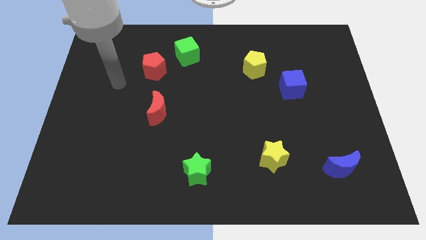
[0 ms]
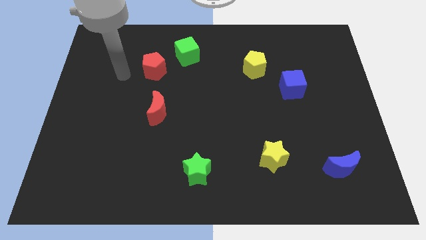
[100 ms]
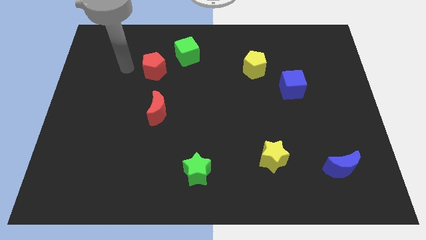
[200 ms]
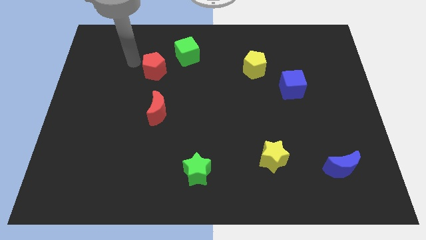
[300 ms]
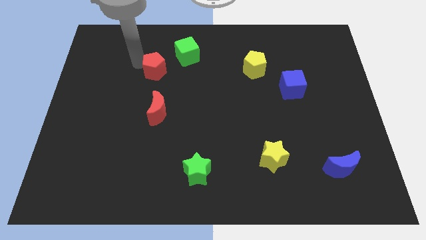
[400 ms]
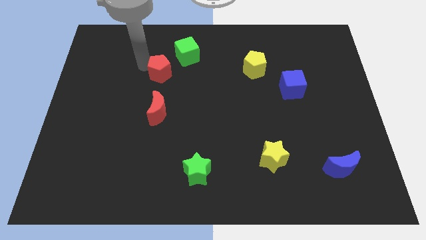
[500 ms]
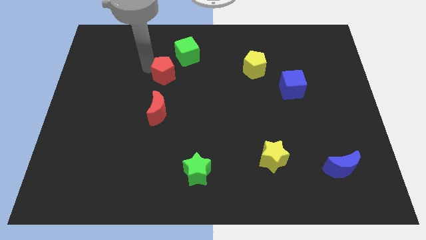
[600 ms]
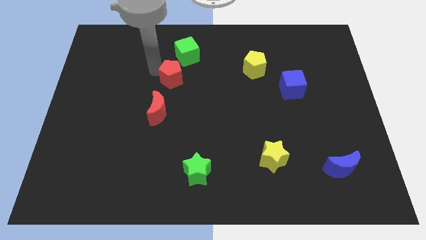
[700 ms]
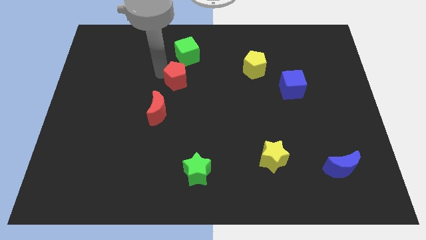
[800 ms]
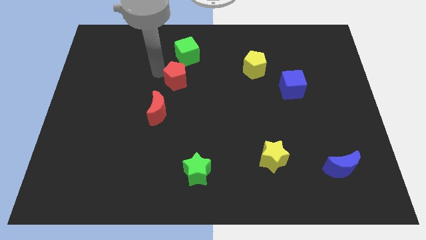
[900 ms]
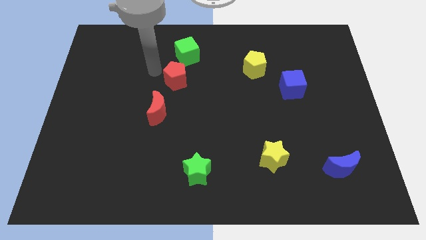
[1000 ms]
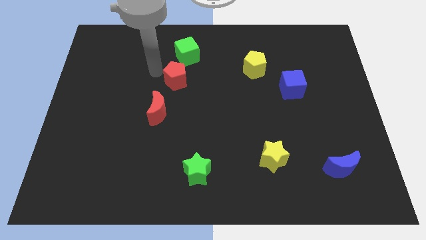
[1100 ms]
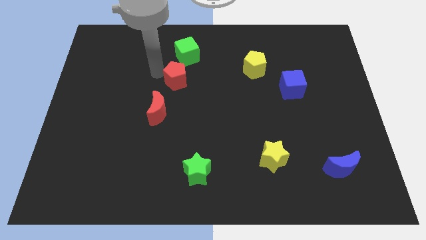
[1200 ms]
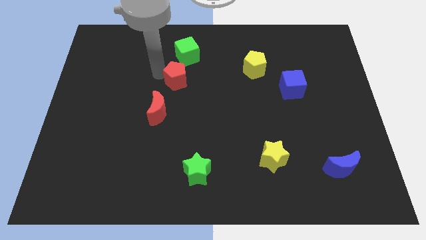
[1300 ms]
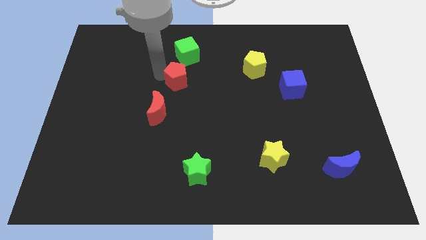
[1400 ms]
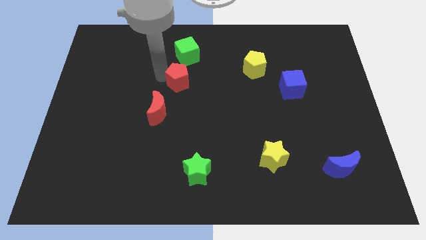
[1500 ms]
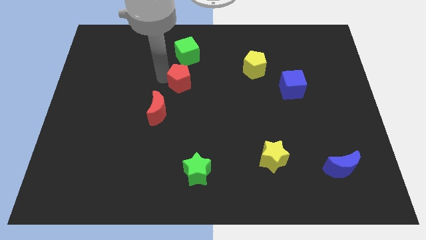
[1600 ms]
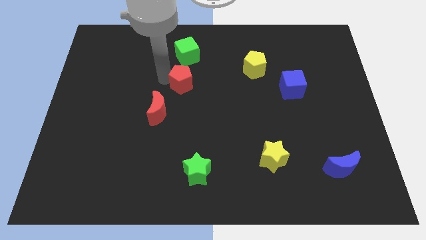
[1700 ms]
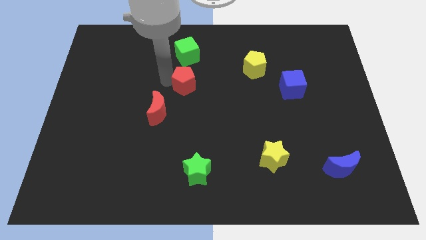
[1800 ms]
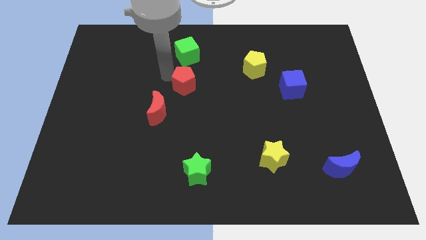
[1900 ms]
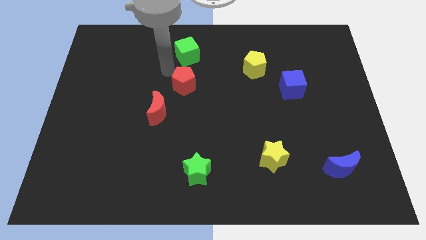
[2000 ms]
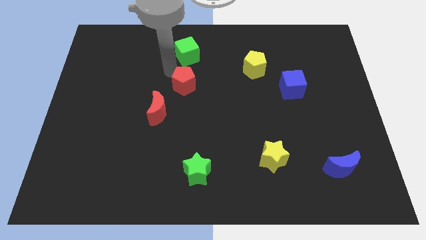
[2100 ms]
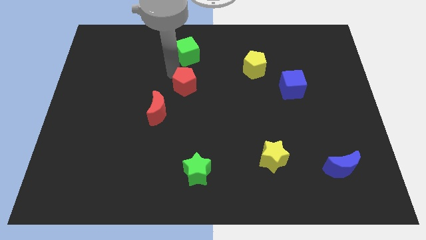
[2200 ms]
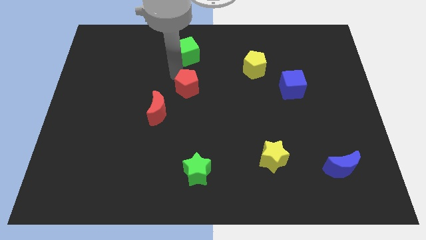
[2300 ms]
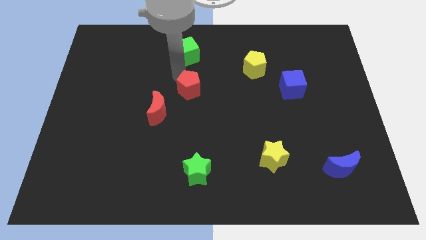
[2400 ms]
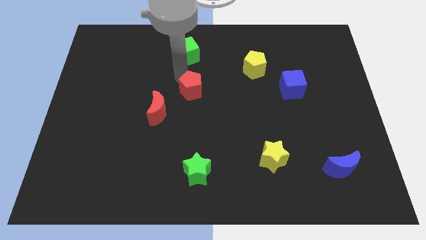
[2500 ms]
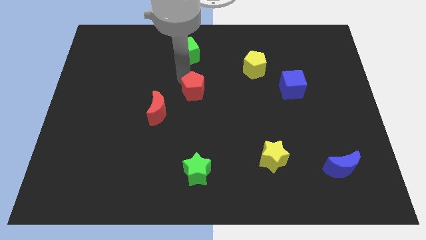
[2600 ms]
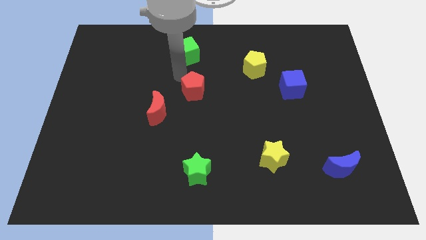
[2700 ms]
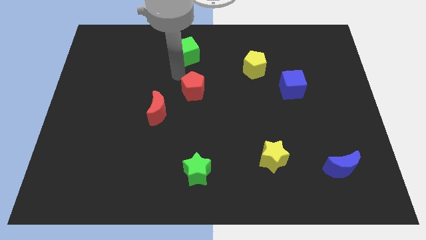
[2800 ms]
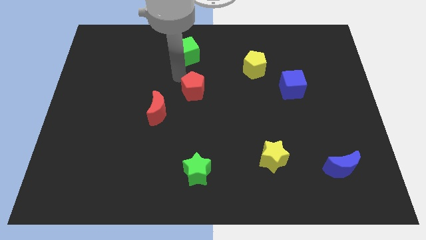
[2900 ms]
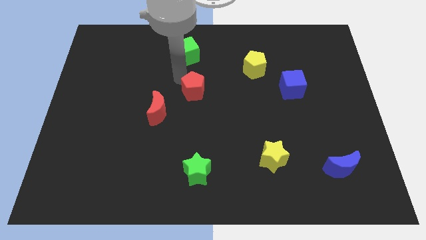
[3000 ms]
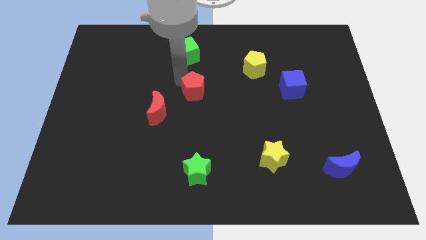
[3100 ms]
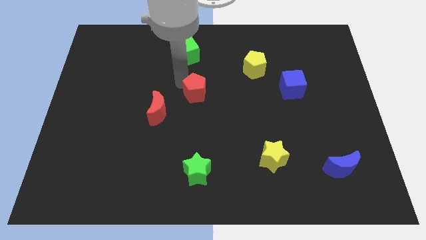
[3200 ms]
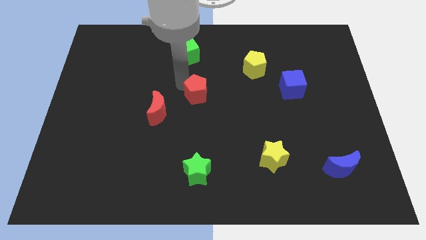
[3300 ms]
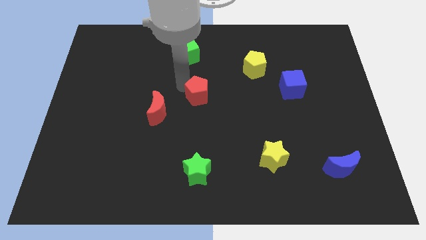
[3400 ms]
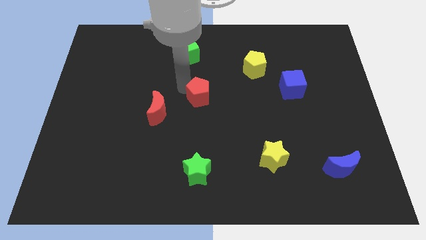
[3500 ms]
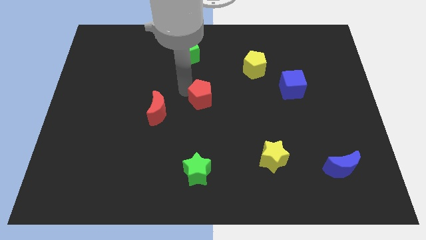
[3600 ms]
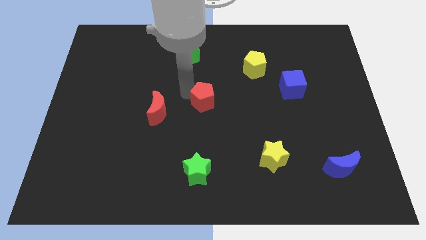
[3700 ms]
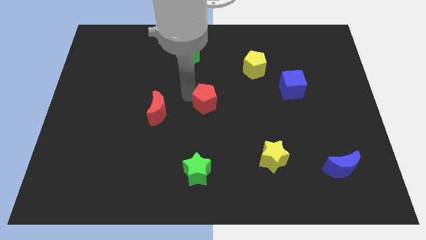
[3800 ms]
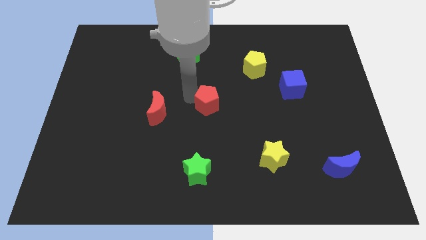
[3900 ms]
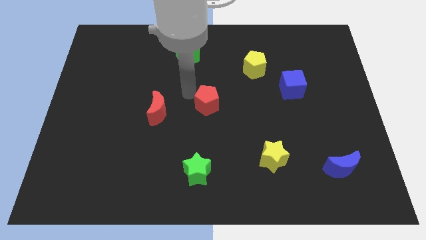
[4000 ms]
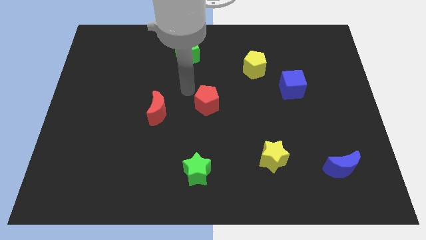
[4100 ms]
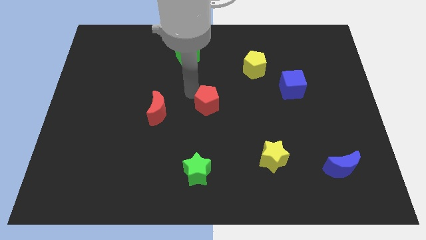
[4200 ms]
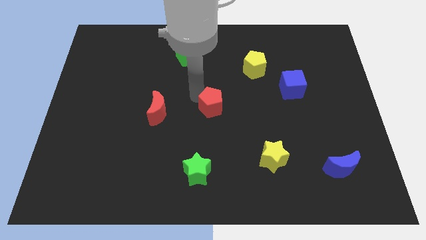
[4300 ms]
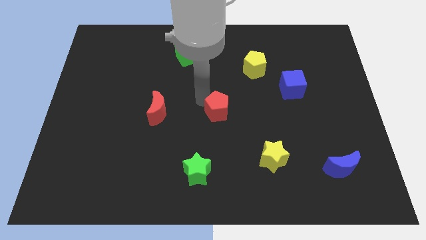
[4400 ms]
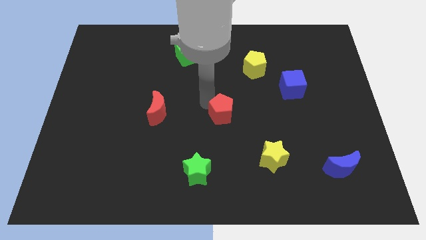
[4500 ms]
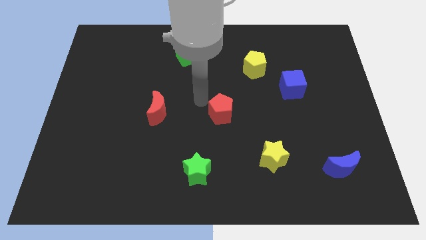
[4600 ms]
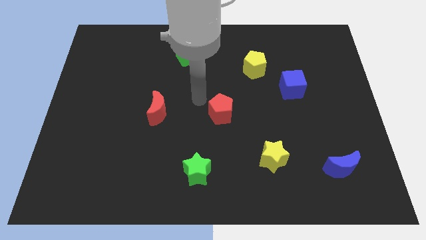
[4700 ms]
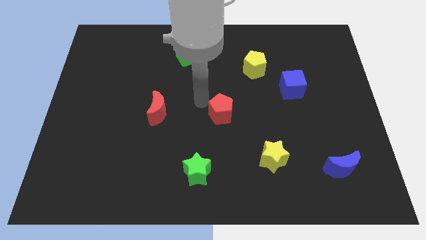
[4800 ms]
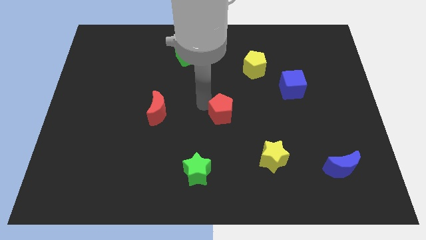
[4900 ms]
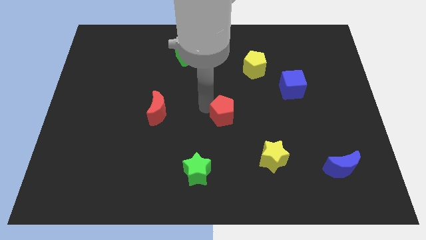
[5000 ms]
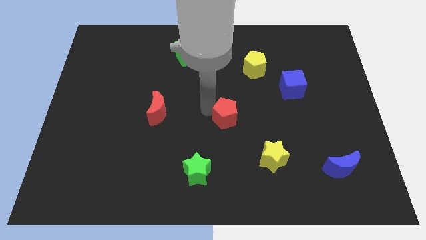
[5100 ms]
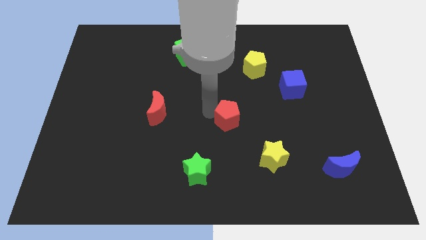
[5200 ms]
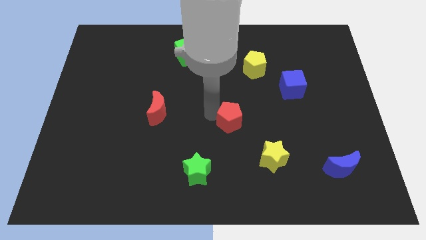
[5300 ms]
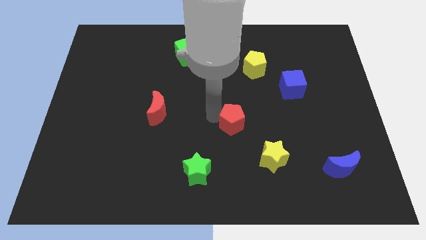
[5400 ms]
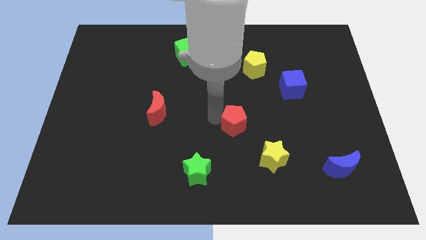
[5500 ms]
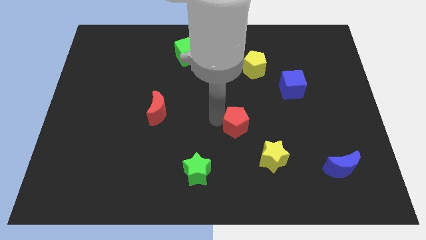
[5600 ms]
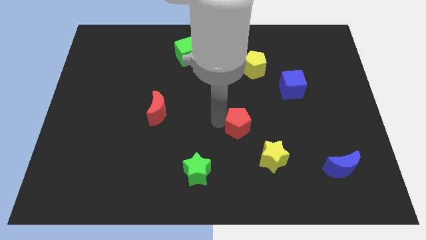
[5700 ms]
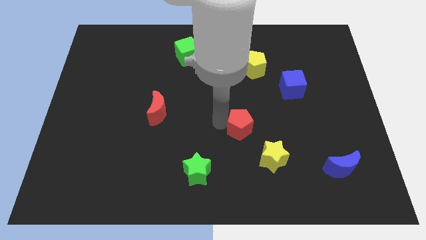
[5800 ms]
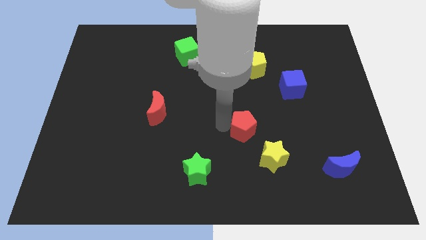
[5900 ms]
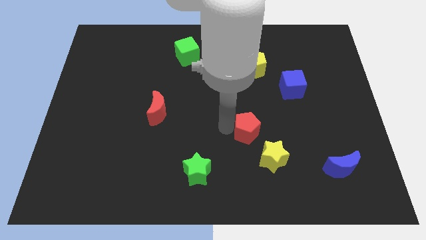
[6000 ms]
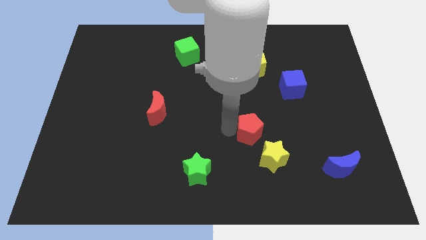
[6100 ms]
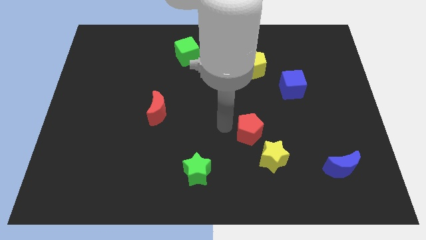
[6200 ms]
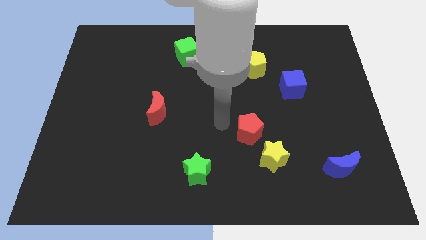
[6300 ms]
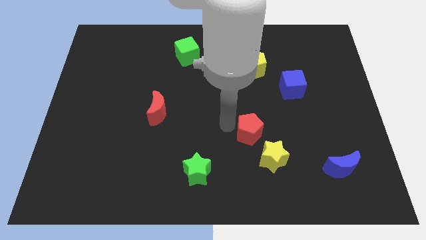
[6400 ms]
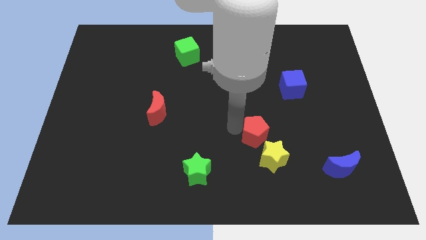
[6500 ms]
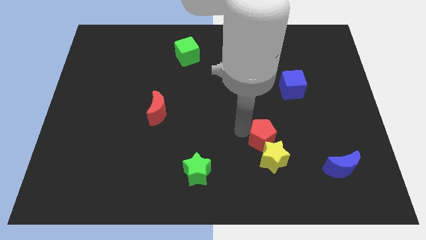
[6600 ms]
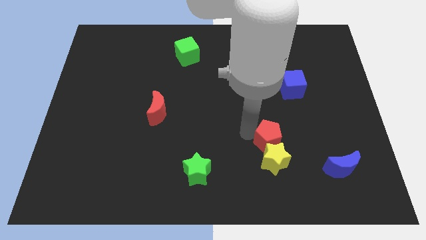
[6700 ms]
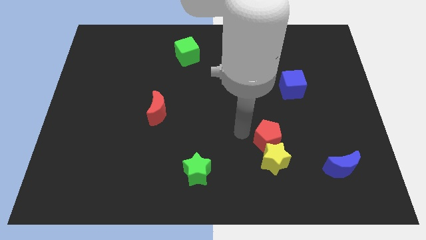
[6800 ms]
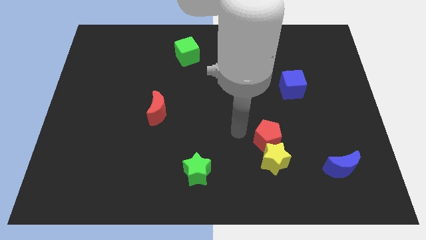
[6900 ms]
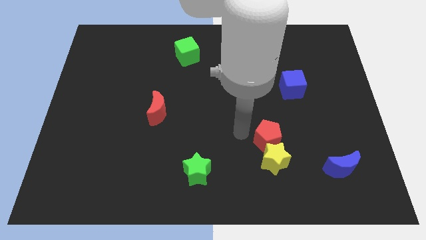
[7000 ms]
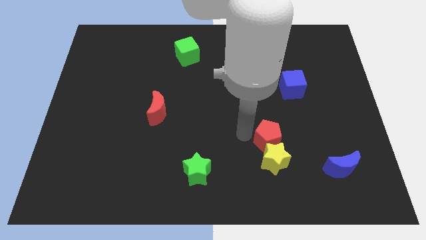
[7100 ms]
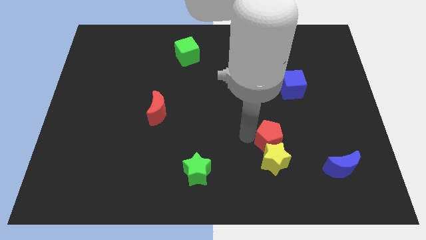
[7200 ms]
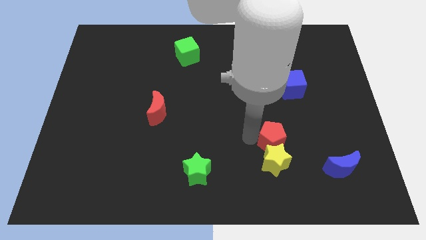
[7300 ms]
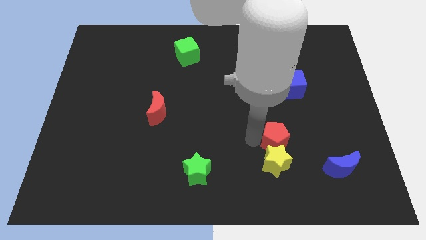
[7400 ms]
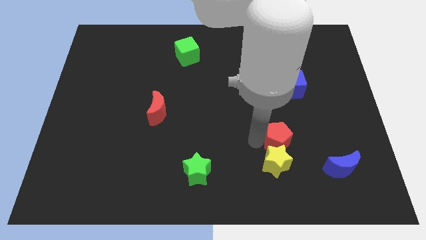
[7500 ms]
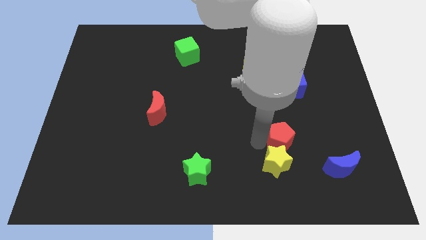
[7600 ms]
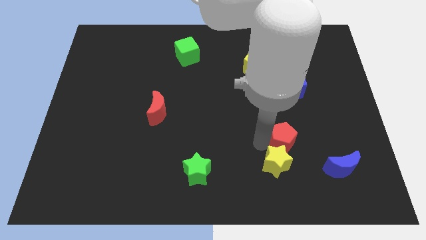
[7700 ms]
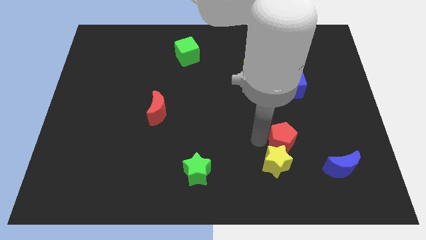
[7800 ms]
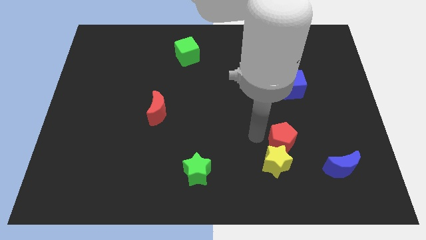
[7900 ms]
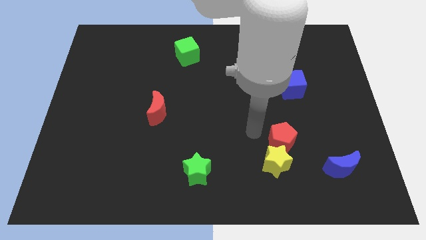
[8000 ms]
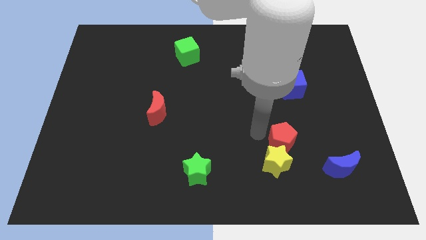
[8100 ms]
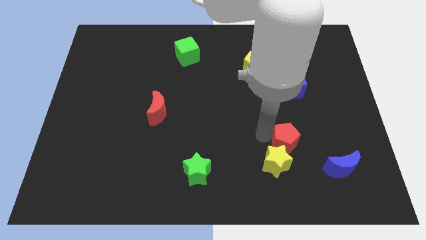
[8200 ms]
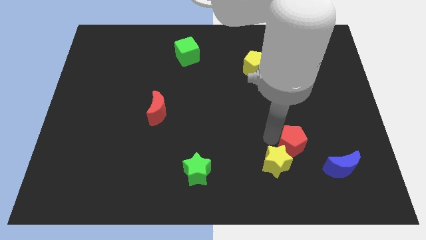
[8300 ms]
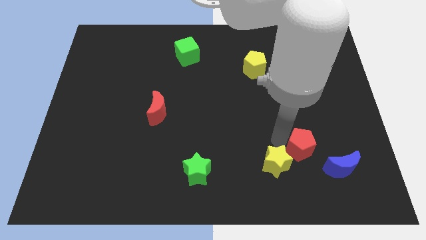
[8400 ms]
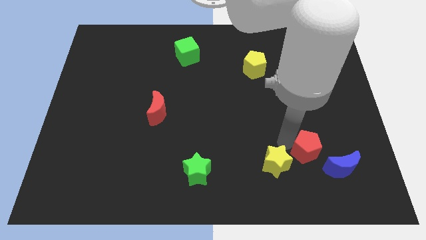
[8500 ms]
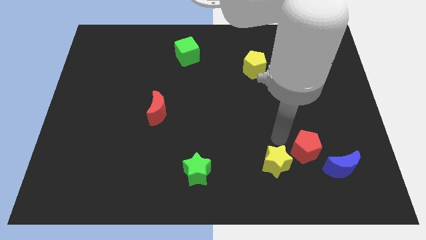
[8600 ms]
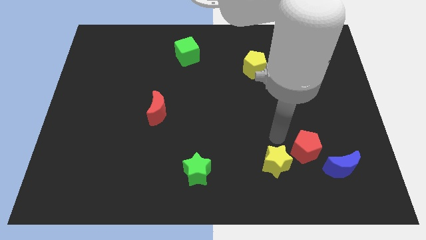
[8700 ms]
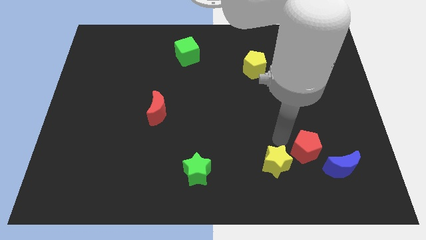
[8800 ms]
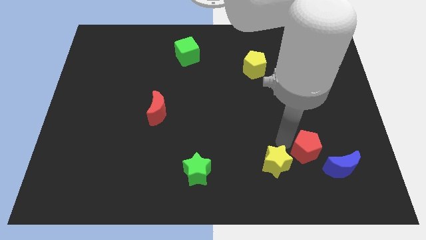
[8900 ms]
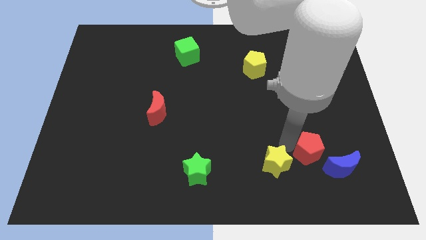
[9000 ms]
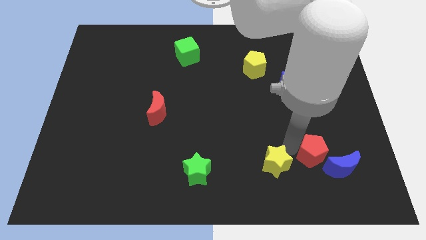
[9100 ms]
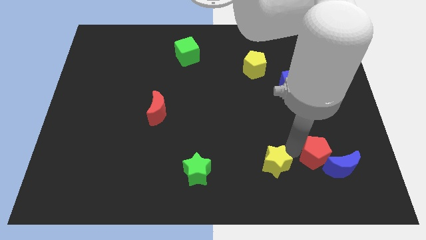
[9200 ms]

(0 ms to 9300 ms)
put the red pentagon next to the blue moon
